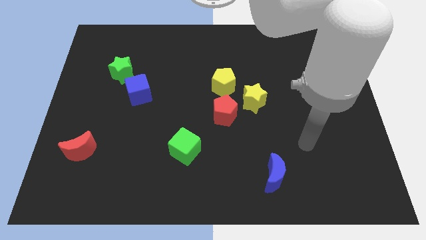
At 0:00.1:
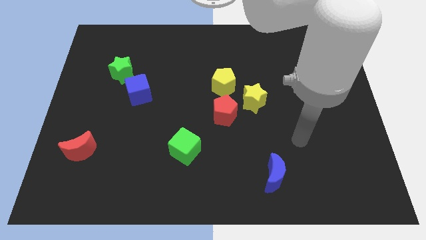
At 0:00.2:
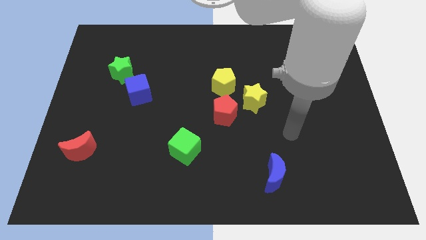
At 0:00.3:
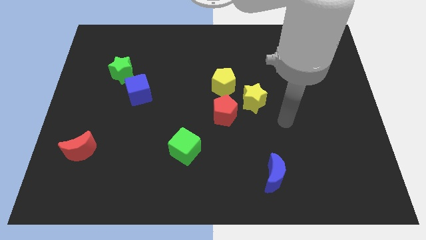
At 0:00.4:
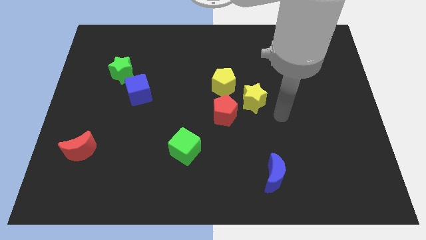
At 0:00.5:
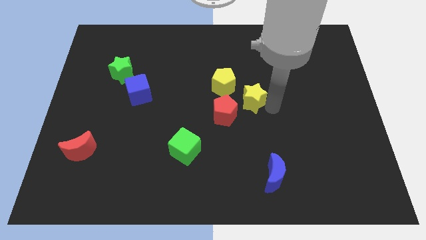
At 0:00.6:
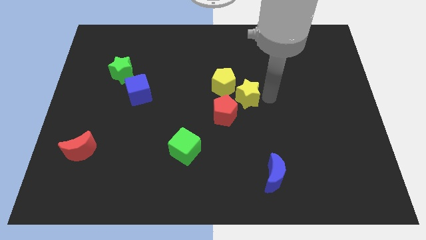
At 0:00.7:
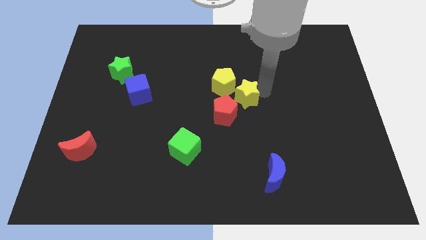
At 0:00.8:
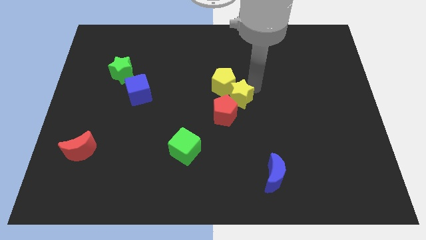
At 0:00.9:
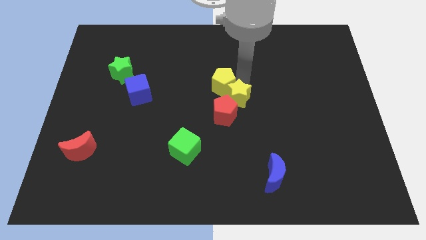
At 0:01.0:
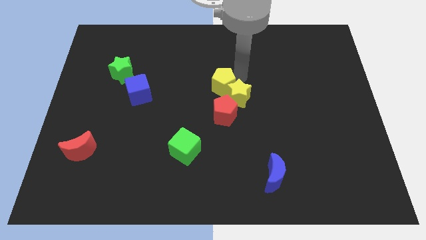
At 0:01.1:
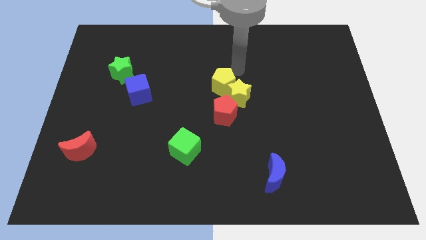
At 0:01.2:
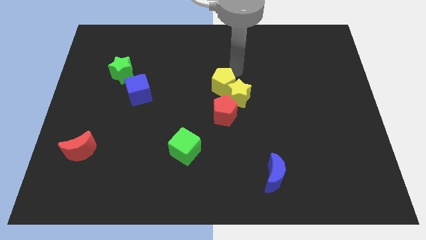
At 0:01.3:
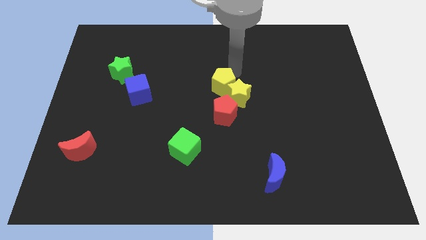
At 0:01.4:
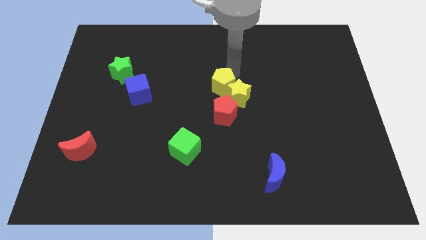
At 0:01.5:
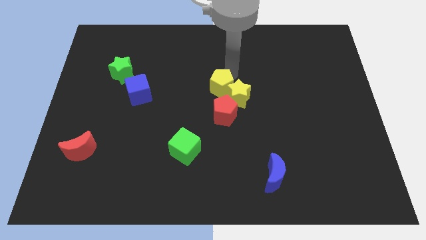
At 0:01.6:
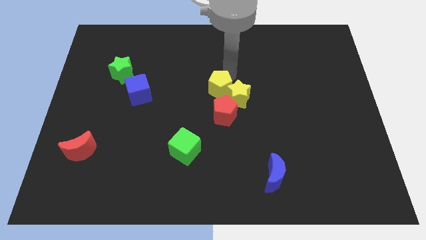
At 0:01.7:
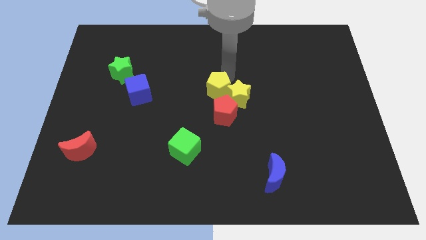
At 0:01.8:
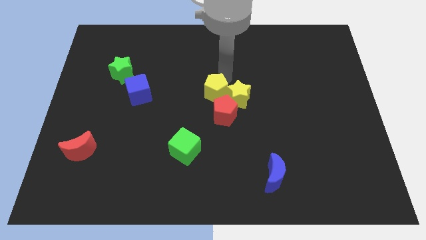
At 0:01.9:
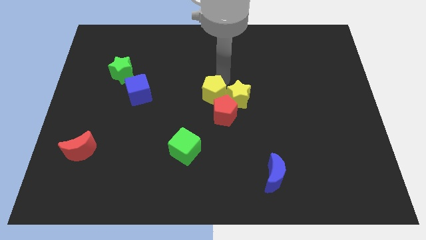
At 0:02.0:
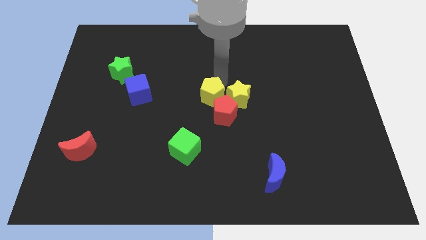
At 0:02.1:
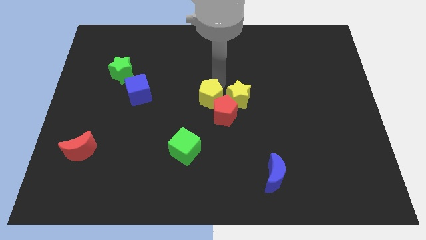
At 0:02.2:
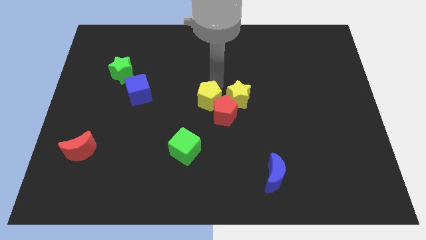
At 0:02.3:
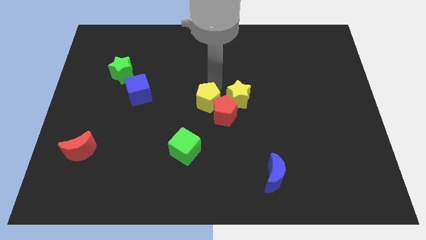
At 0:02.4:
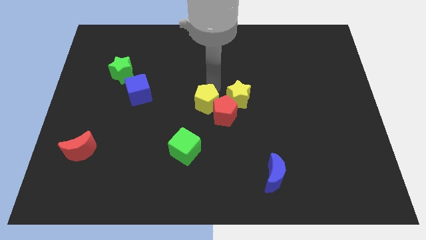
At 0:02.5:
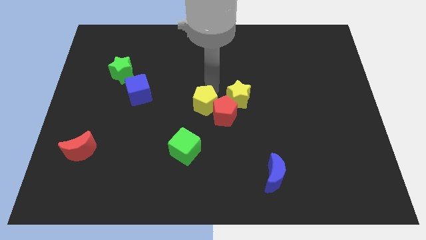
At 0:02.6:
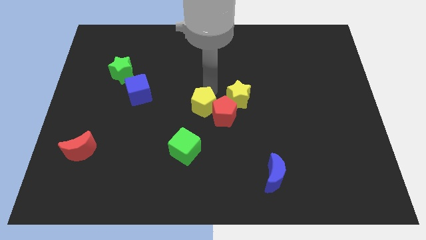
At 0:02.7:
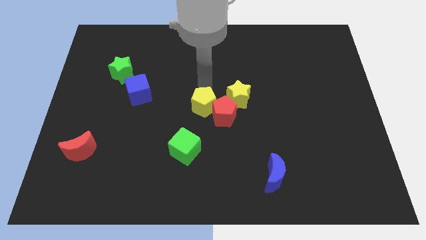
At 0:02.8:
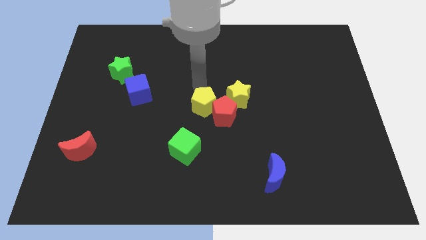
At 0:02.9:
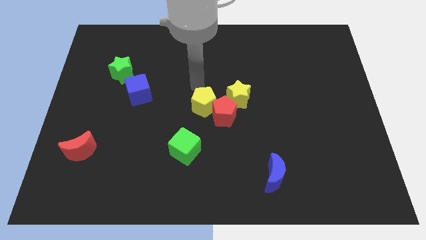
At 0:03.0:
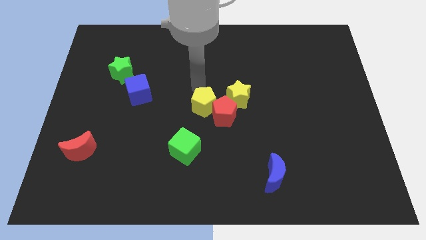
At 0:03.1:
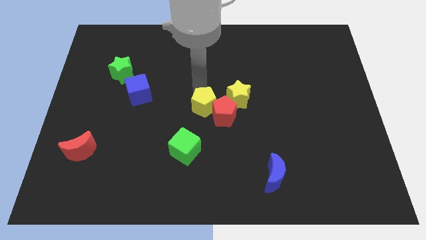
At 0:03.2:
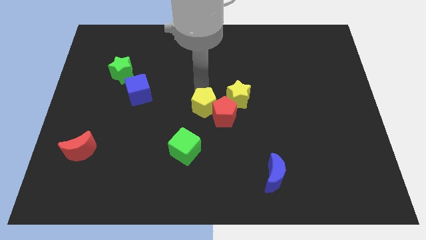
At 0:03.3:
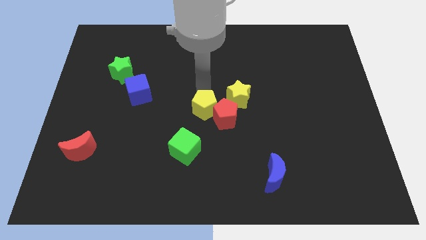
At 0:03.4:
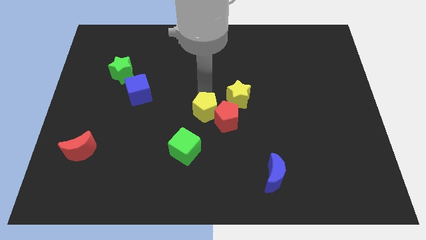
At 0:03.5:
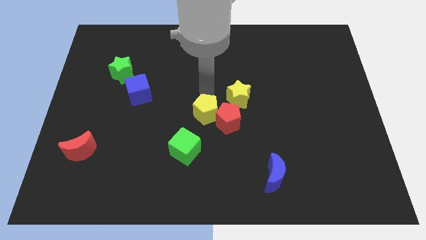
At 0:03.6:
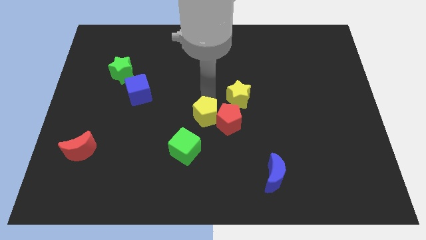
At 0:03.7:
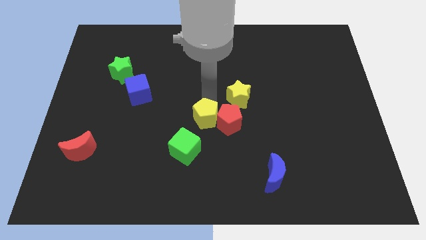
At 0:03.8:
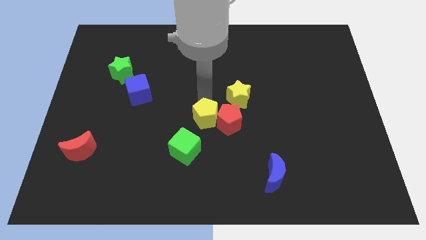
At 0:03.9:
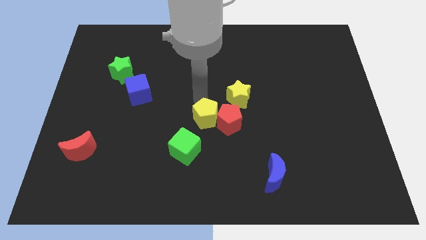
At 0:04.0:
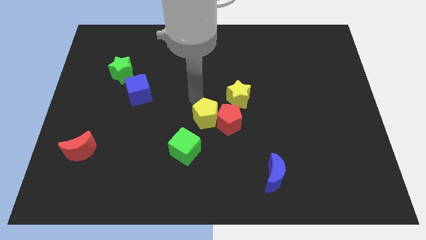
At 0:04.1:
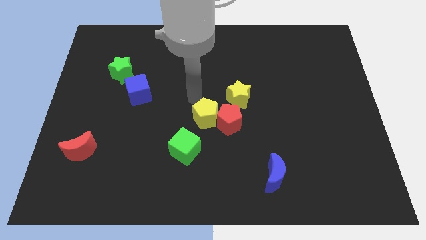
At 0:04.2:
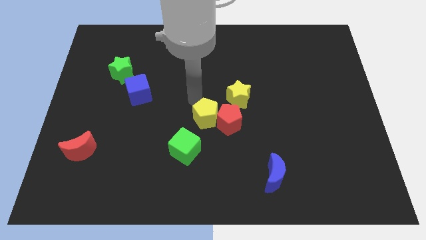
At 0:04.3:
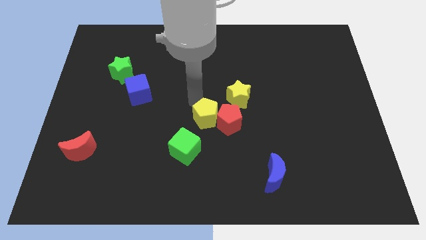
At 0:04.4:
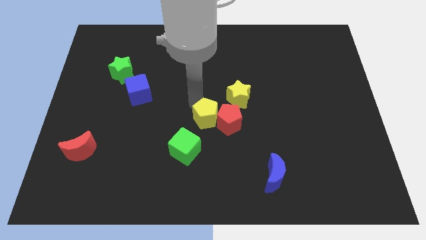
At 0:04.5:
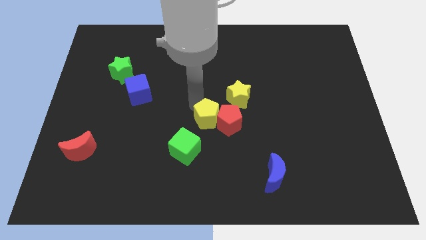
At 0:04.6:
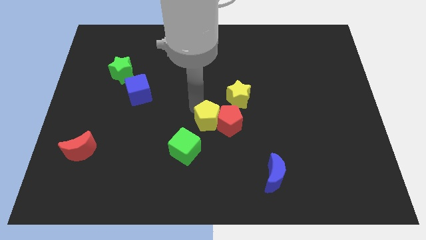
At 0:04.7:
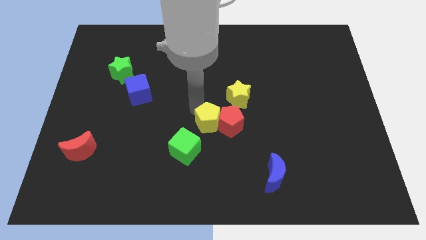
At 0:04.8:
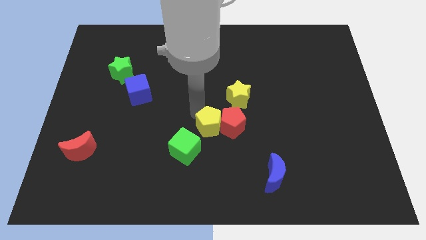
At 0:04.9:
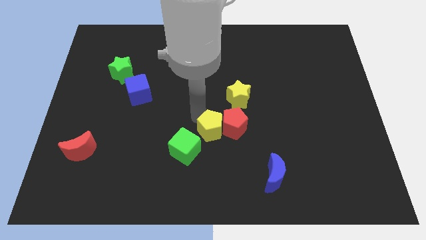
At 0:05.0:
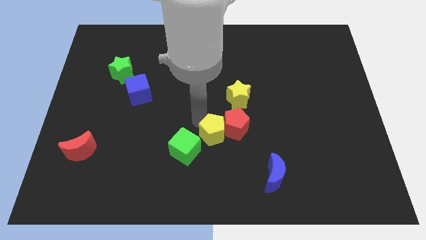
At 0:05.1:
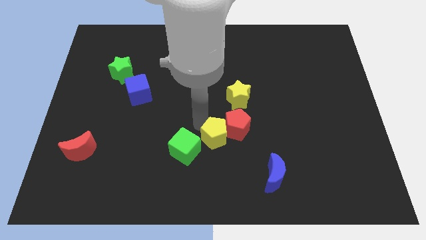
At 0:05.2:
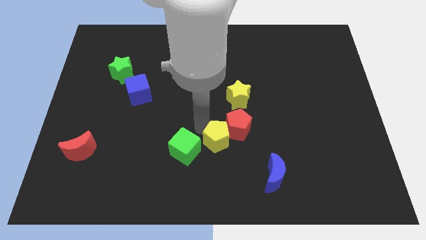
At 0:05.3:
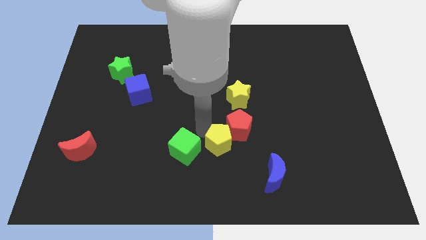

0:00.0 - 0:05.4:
put the yellow pentagon to the bottom side of the red pentagon

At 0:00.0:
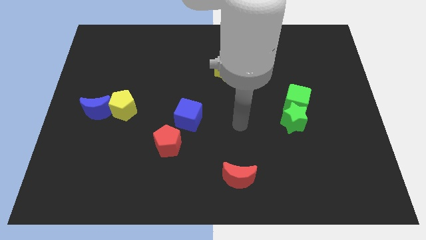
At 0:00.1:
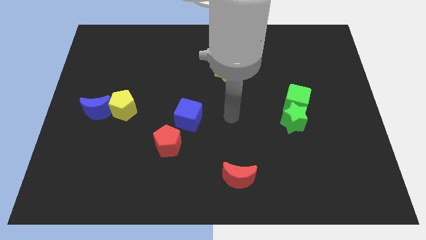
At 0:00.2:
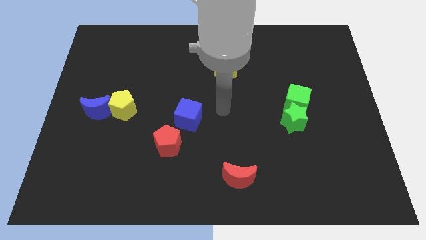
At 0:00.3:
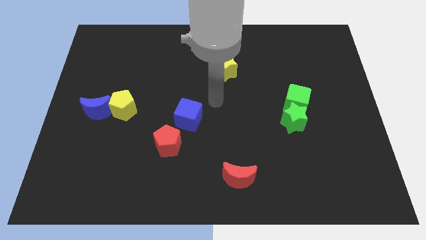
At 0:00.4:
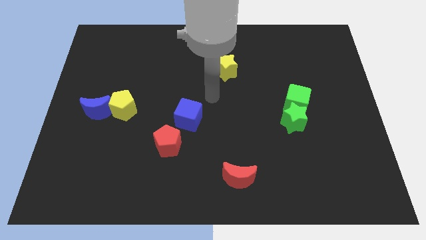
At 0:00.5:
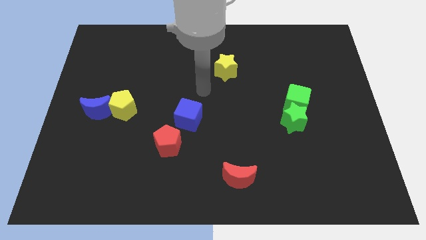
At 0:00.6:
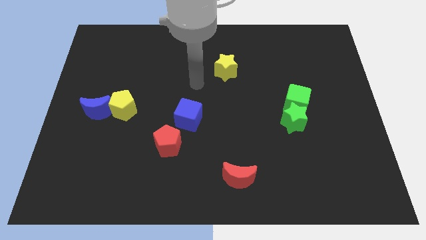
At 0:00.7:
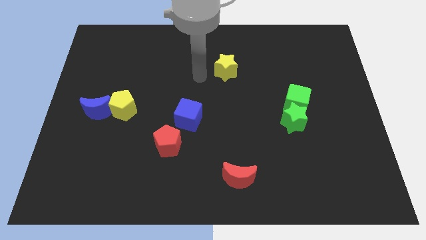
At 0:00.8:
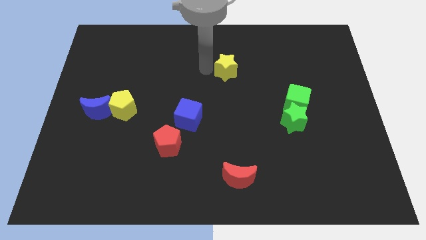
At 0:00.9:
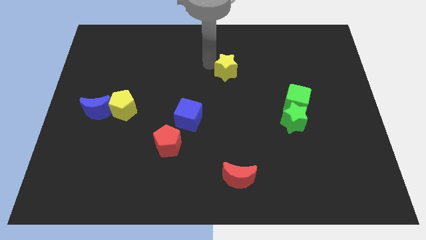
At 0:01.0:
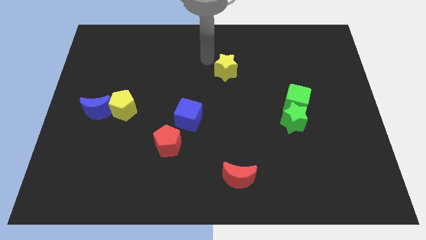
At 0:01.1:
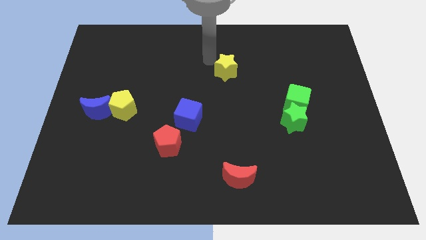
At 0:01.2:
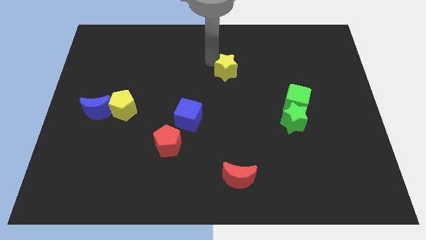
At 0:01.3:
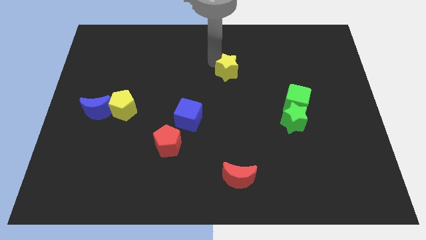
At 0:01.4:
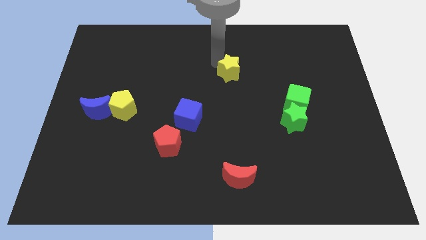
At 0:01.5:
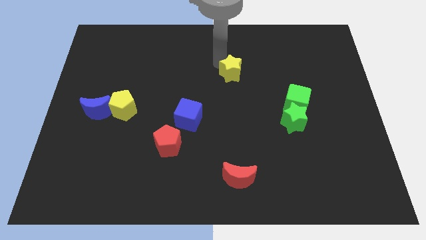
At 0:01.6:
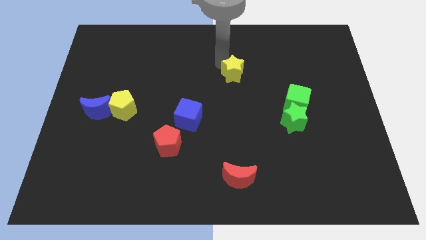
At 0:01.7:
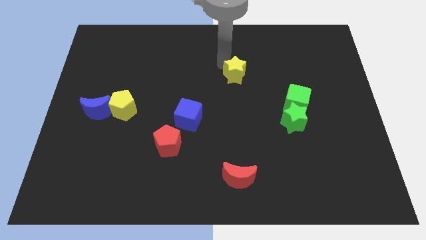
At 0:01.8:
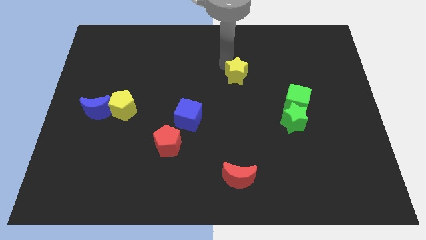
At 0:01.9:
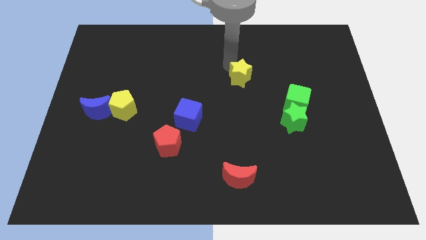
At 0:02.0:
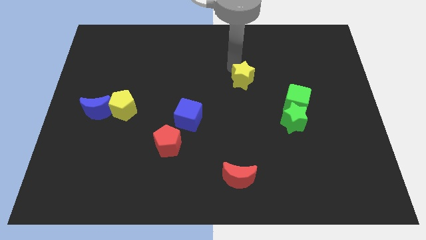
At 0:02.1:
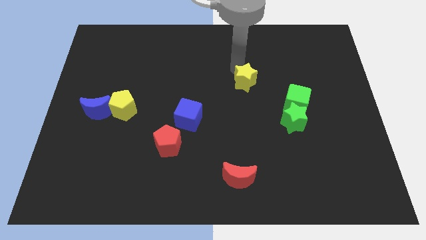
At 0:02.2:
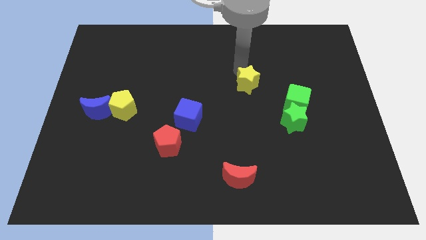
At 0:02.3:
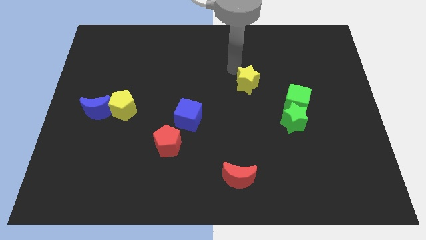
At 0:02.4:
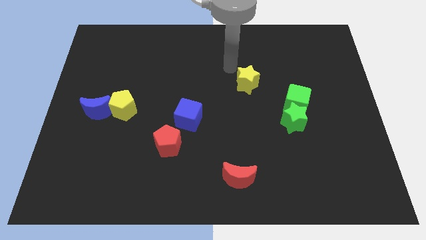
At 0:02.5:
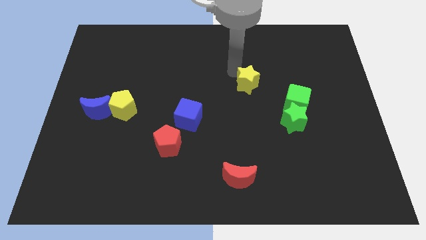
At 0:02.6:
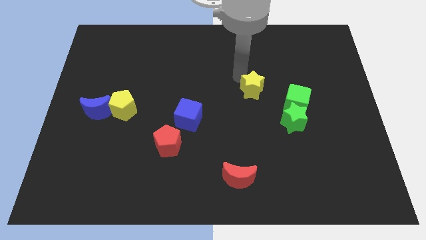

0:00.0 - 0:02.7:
slide the yellow star to the top left side of the green star
